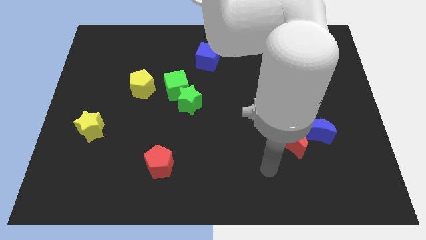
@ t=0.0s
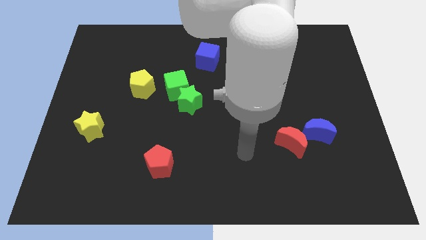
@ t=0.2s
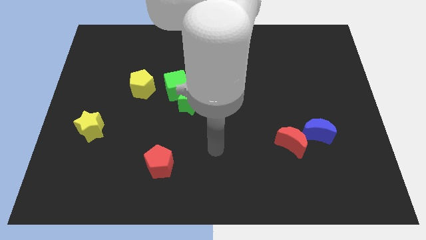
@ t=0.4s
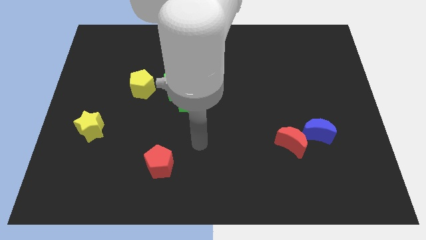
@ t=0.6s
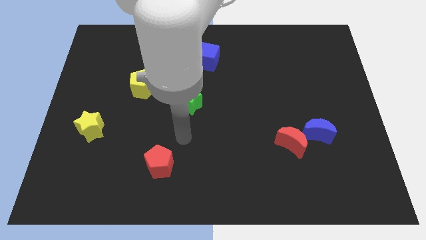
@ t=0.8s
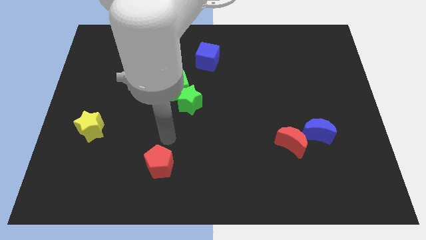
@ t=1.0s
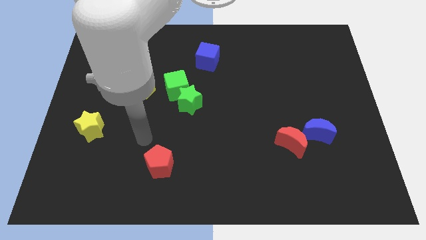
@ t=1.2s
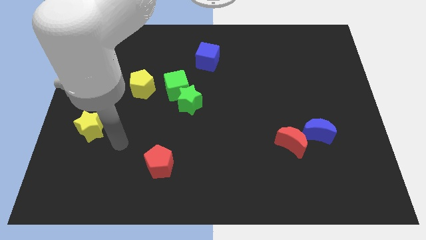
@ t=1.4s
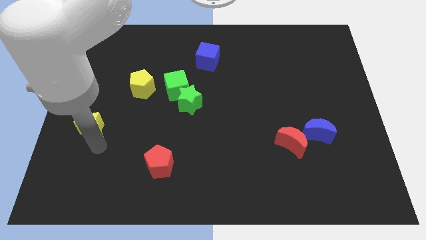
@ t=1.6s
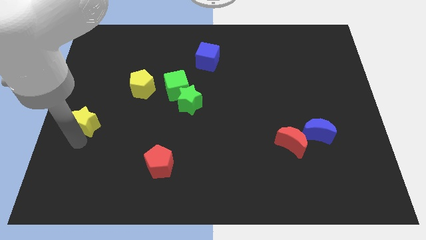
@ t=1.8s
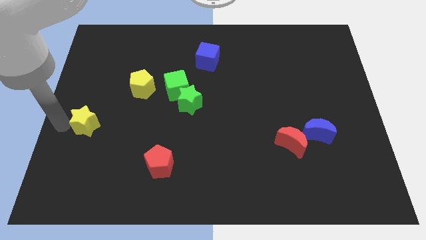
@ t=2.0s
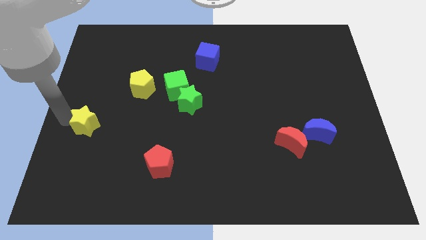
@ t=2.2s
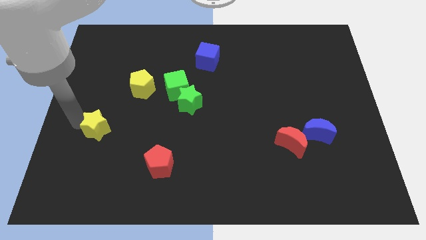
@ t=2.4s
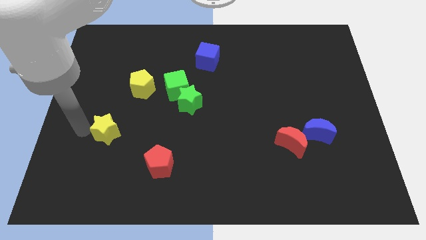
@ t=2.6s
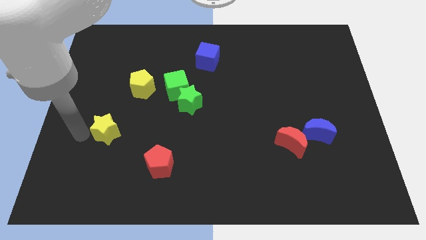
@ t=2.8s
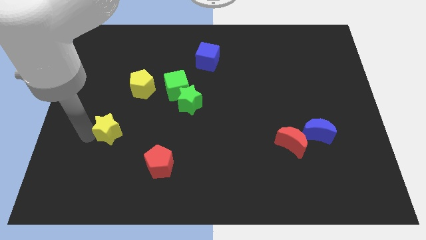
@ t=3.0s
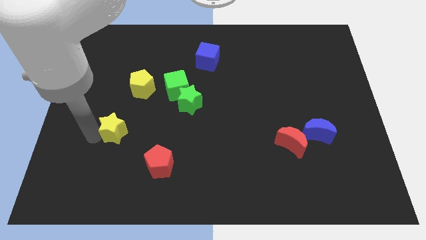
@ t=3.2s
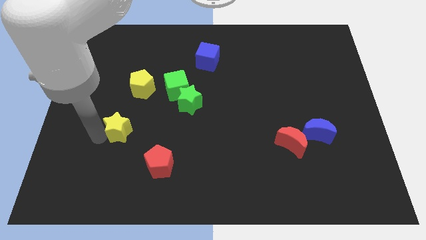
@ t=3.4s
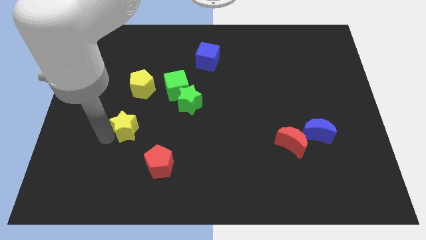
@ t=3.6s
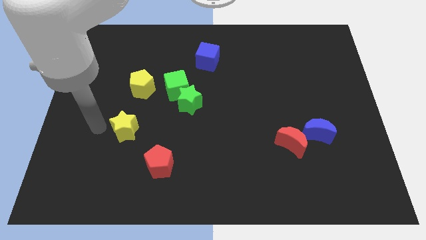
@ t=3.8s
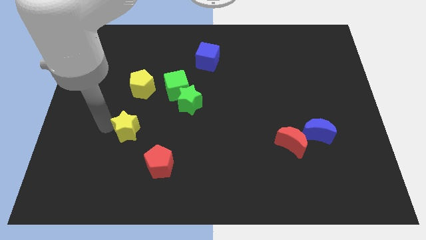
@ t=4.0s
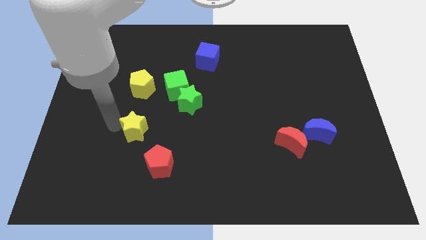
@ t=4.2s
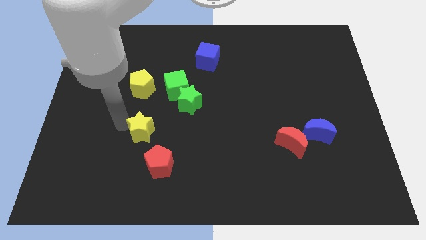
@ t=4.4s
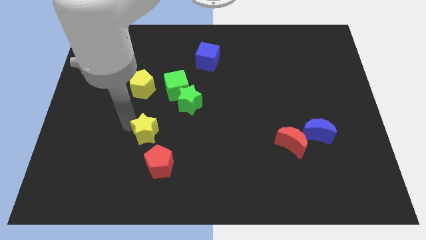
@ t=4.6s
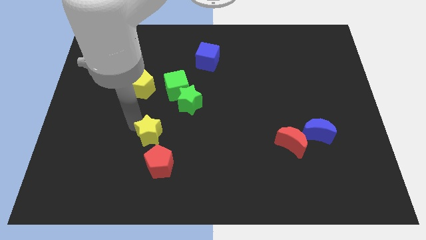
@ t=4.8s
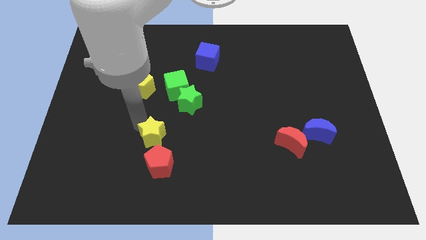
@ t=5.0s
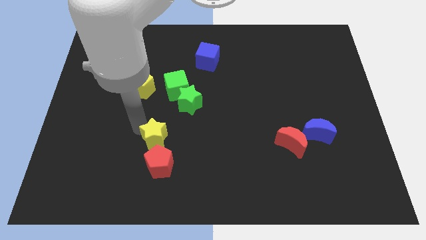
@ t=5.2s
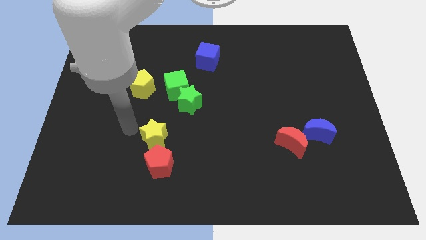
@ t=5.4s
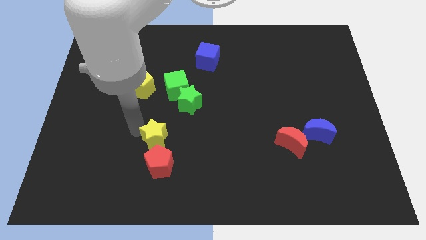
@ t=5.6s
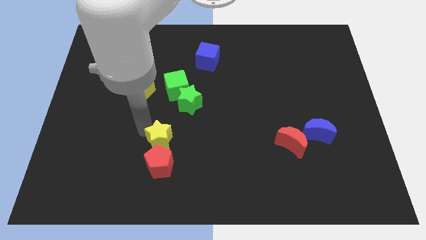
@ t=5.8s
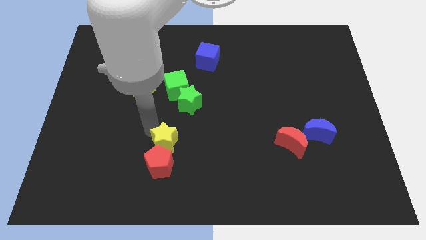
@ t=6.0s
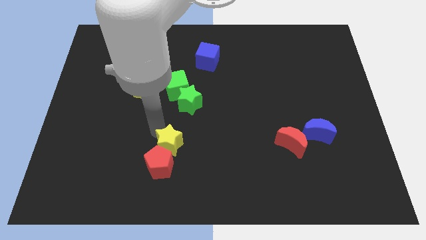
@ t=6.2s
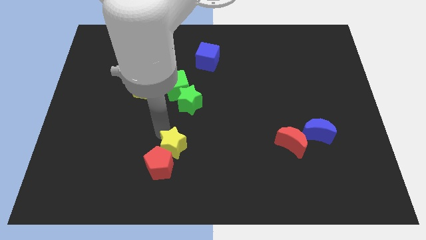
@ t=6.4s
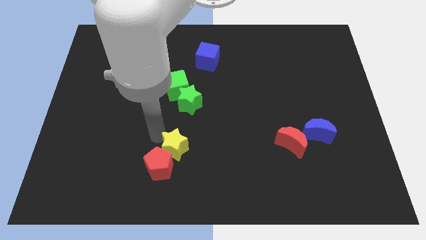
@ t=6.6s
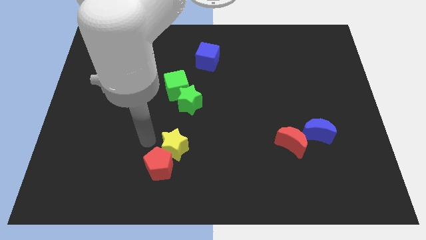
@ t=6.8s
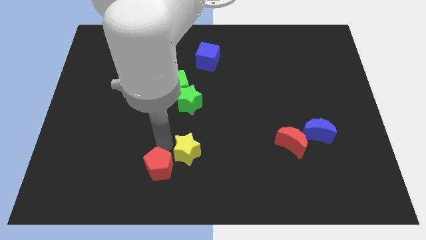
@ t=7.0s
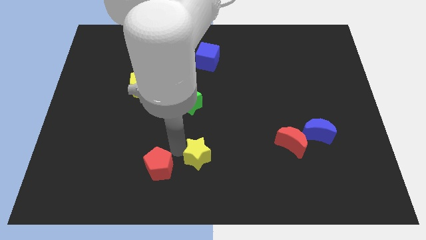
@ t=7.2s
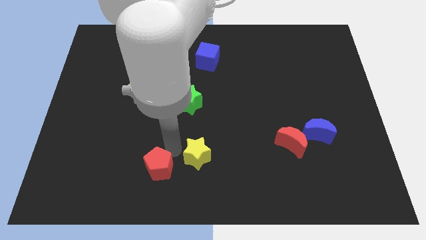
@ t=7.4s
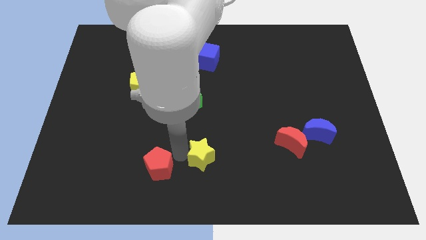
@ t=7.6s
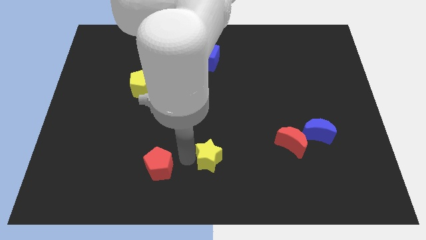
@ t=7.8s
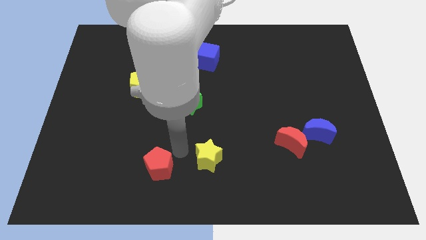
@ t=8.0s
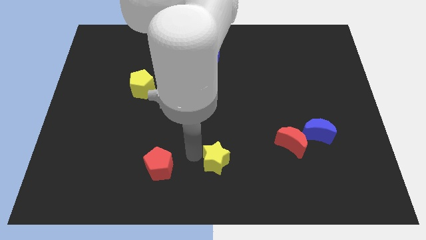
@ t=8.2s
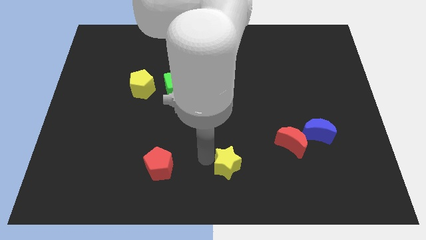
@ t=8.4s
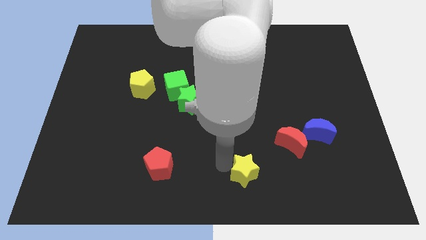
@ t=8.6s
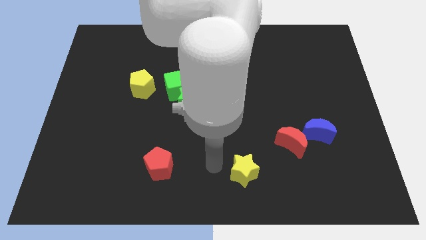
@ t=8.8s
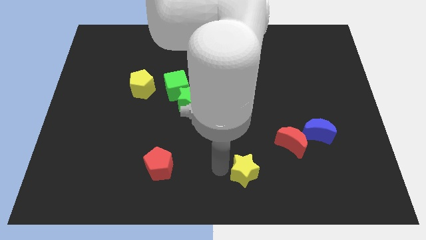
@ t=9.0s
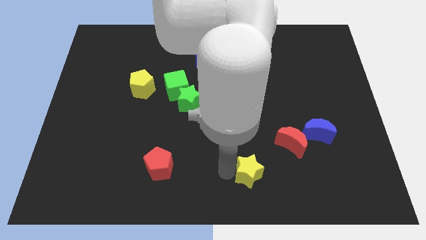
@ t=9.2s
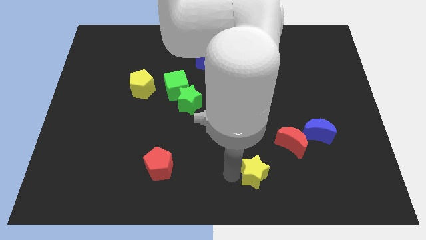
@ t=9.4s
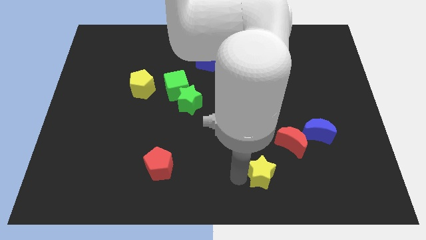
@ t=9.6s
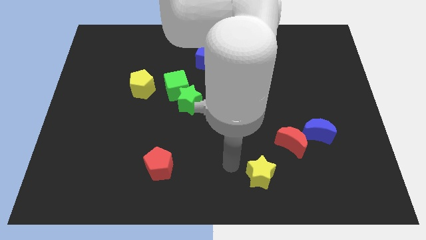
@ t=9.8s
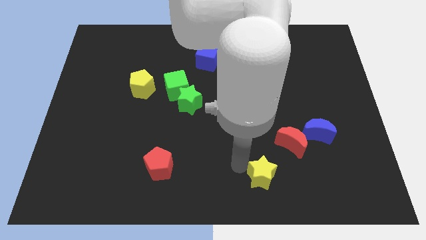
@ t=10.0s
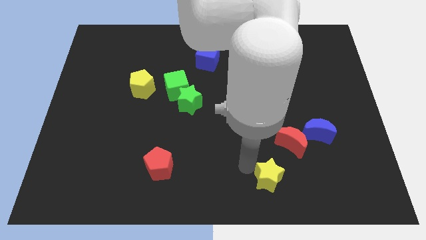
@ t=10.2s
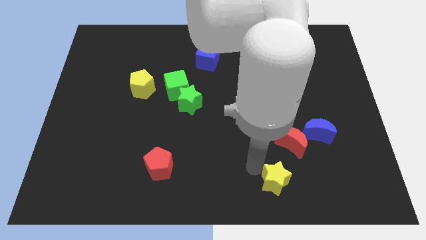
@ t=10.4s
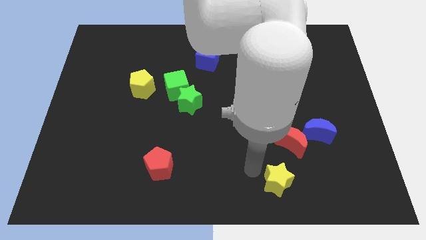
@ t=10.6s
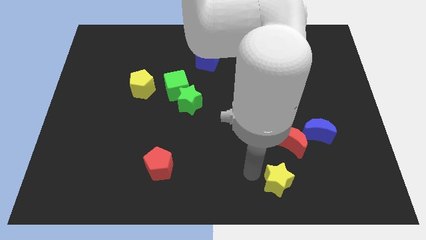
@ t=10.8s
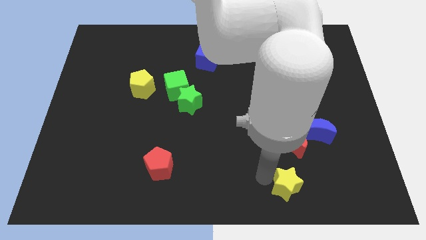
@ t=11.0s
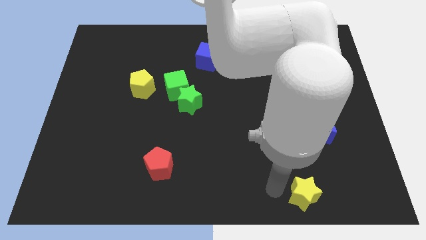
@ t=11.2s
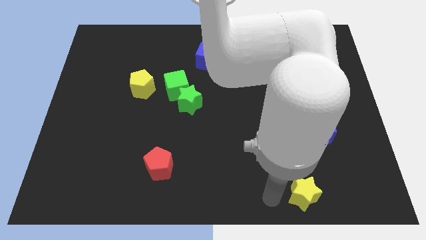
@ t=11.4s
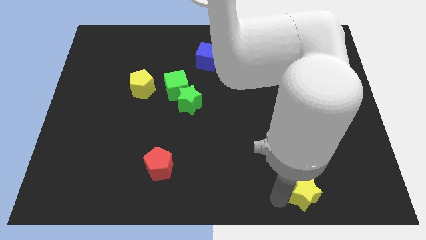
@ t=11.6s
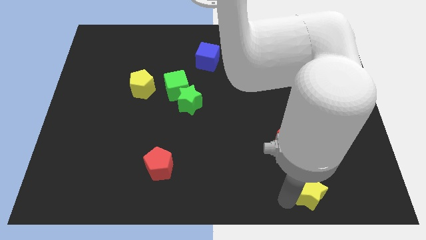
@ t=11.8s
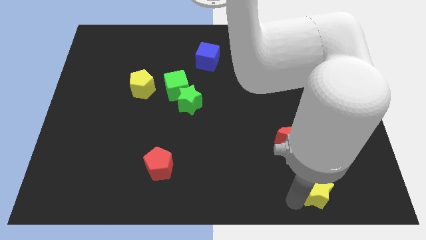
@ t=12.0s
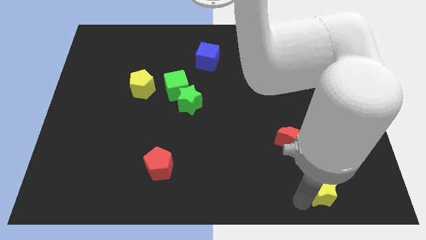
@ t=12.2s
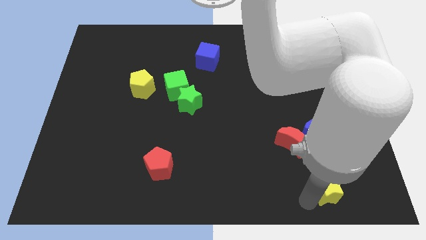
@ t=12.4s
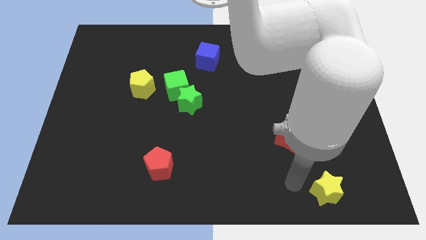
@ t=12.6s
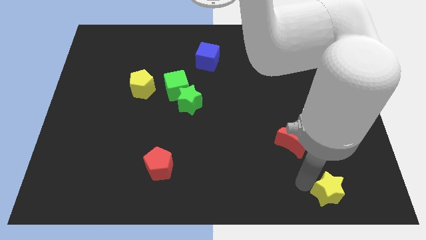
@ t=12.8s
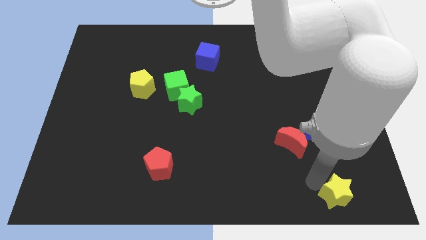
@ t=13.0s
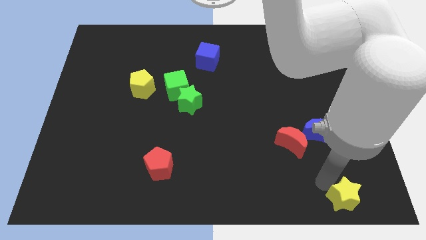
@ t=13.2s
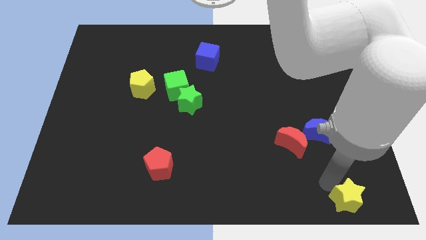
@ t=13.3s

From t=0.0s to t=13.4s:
push the yellow star to the lower right corner
